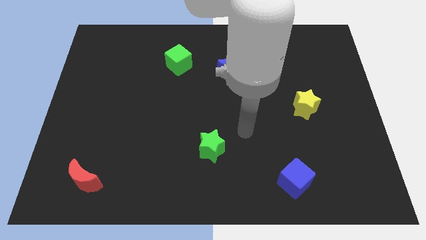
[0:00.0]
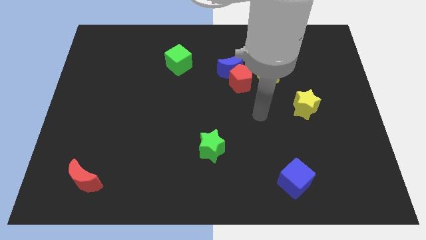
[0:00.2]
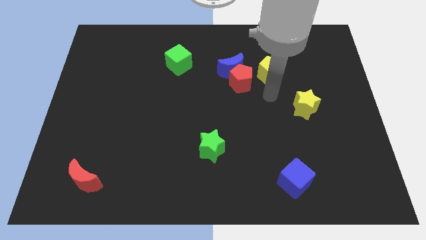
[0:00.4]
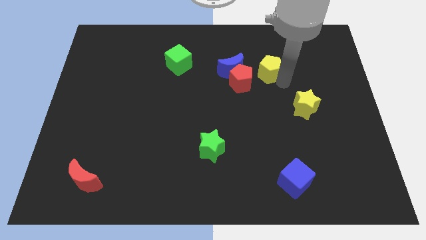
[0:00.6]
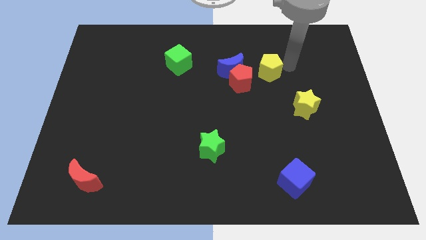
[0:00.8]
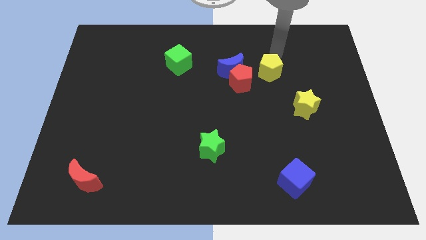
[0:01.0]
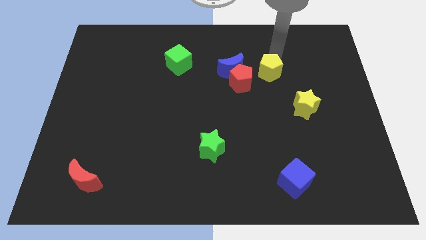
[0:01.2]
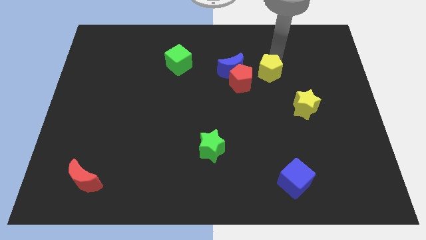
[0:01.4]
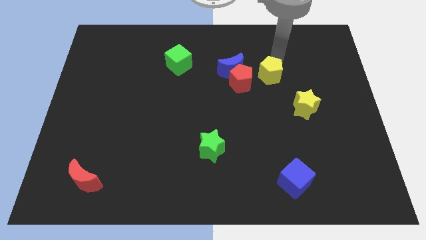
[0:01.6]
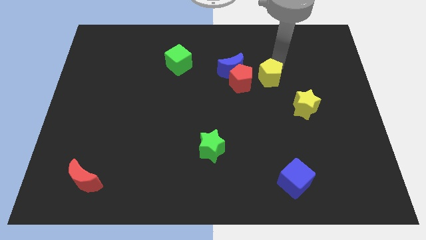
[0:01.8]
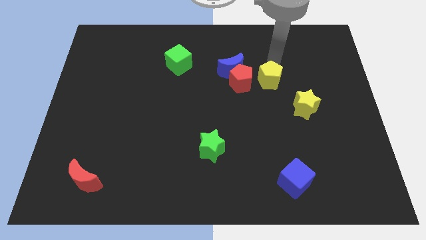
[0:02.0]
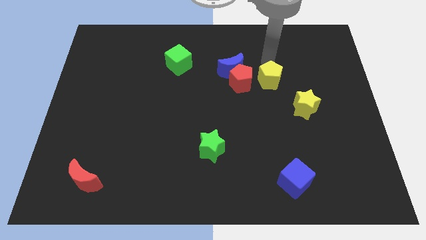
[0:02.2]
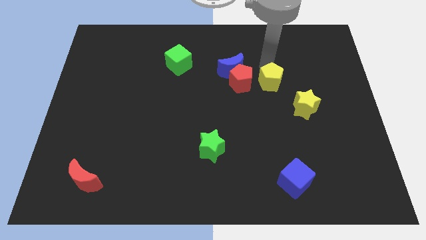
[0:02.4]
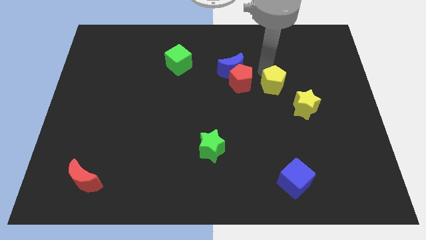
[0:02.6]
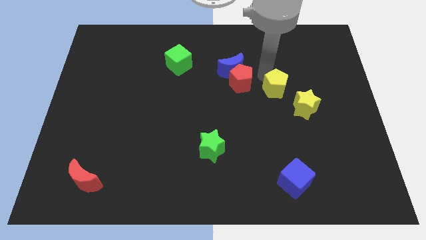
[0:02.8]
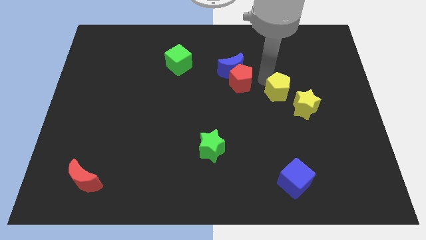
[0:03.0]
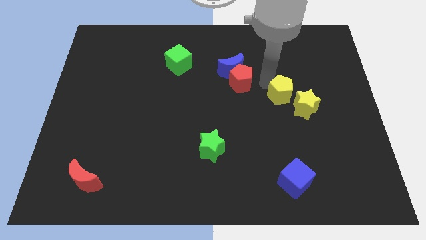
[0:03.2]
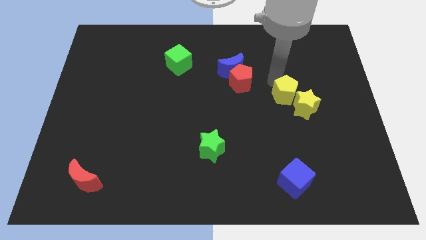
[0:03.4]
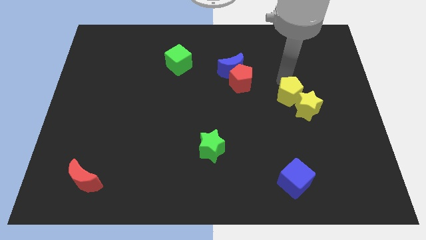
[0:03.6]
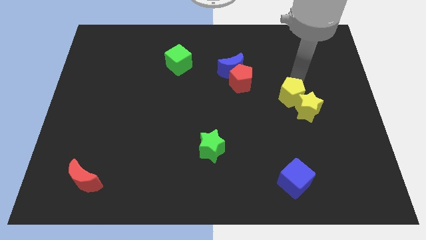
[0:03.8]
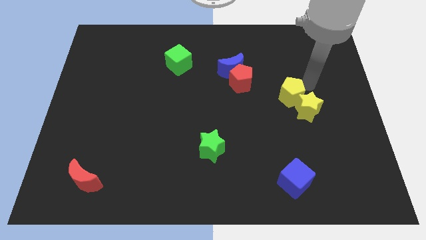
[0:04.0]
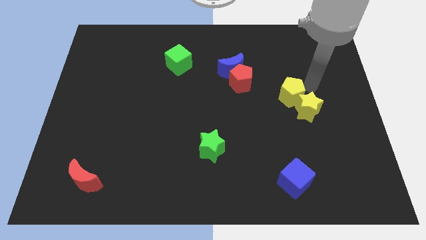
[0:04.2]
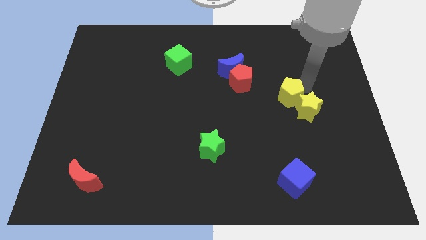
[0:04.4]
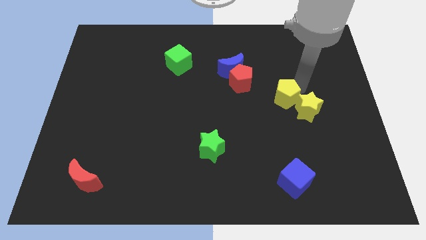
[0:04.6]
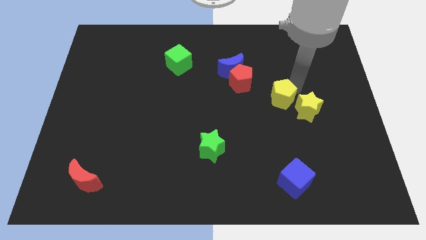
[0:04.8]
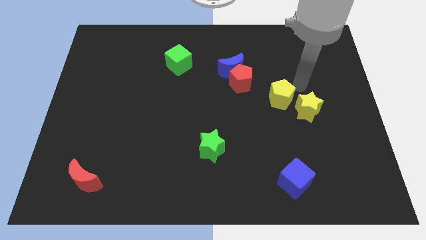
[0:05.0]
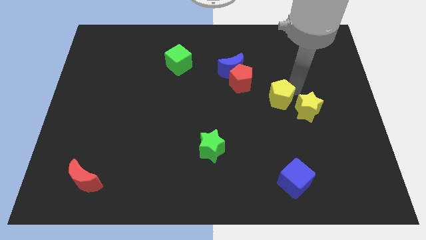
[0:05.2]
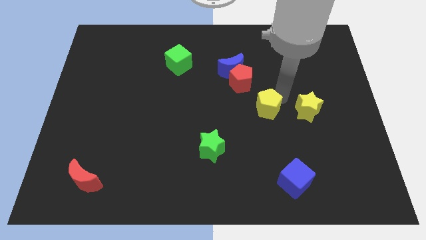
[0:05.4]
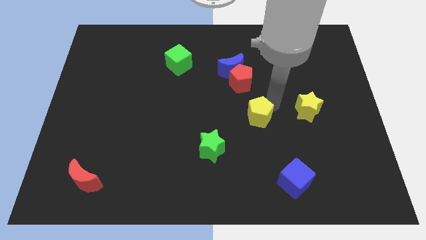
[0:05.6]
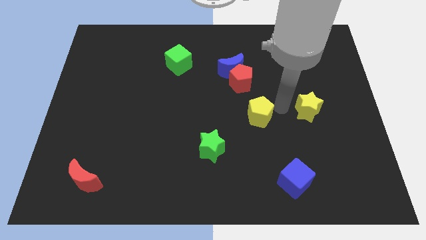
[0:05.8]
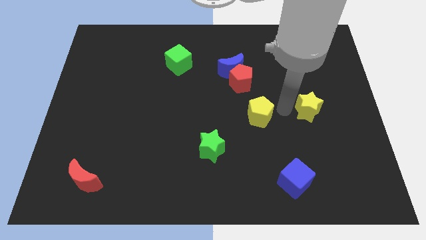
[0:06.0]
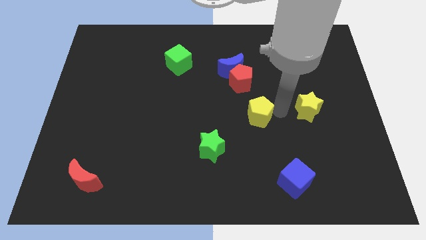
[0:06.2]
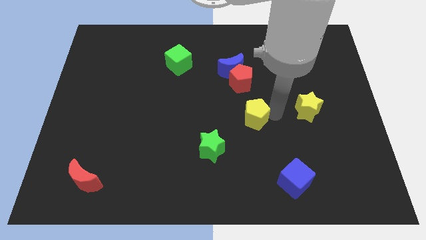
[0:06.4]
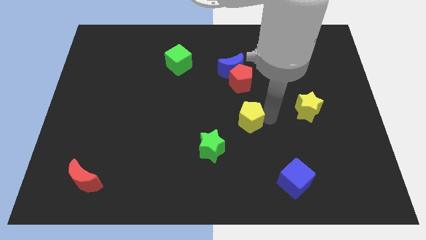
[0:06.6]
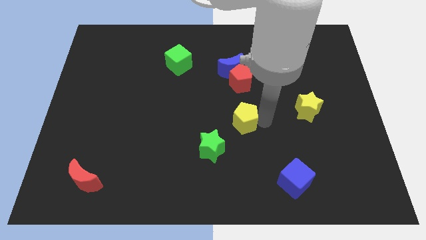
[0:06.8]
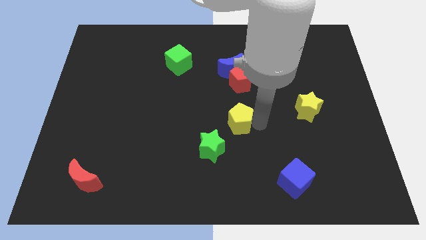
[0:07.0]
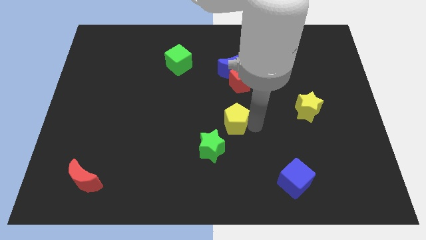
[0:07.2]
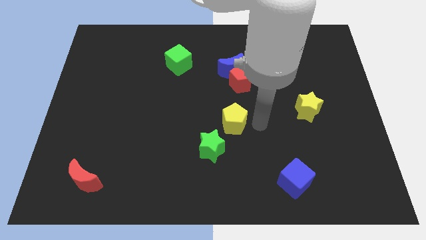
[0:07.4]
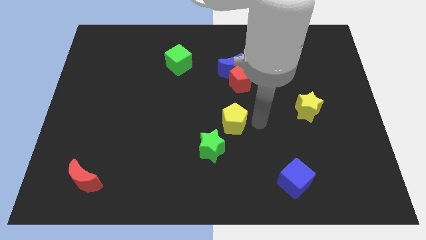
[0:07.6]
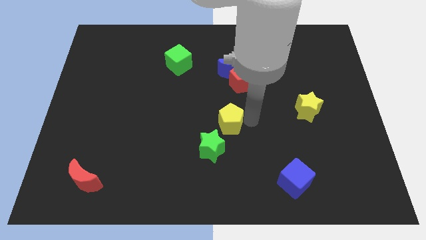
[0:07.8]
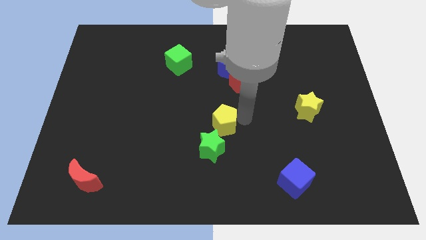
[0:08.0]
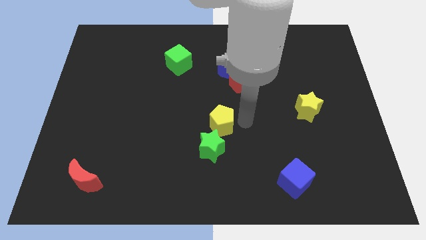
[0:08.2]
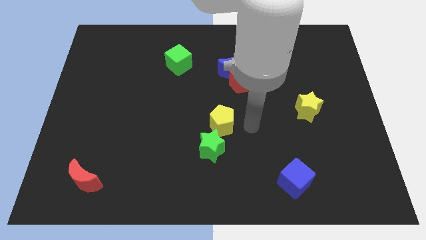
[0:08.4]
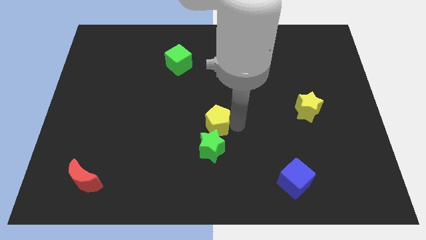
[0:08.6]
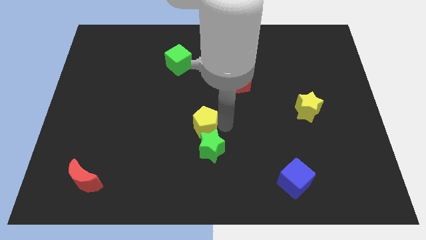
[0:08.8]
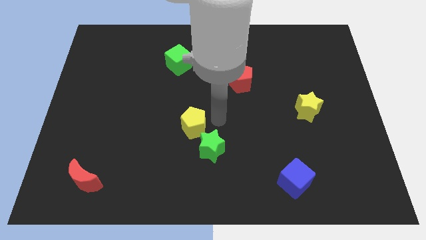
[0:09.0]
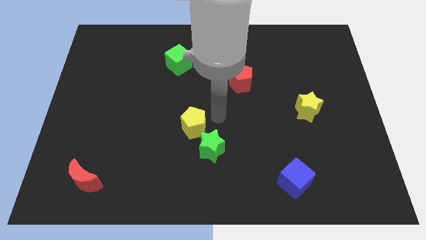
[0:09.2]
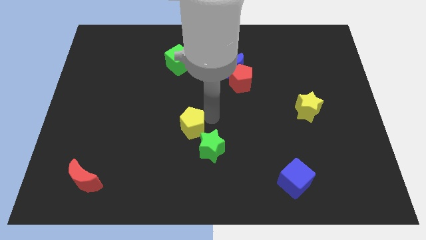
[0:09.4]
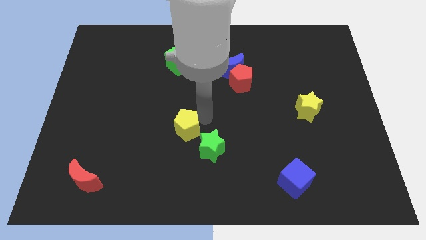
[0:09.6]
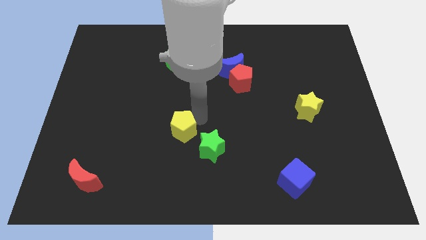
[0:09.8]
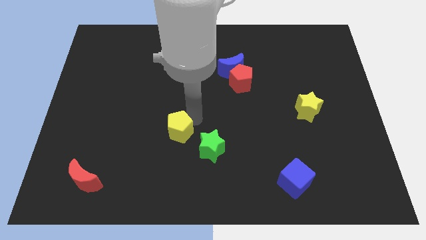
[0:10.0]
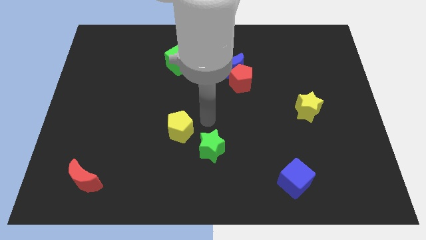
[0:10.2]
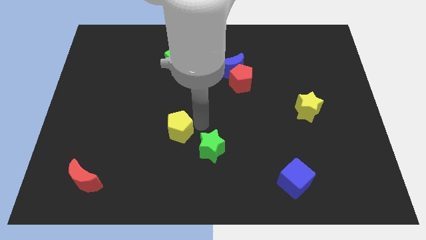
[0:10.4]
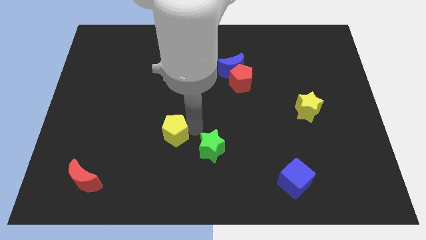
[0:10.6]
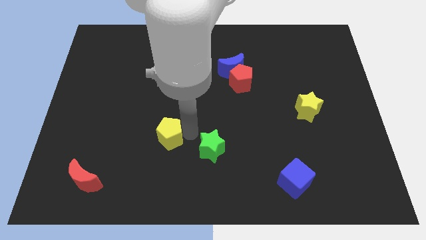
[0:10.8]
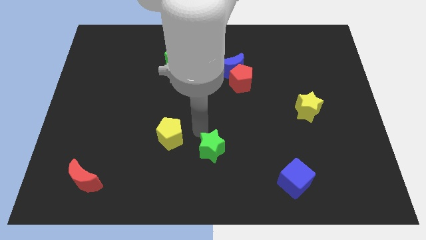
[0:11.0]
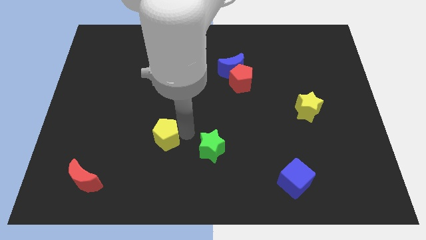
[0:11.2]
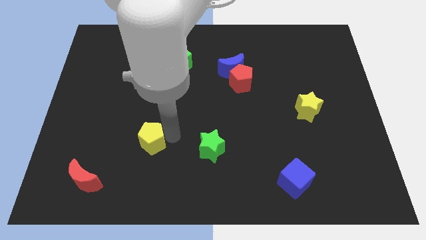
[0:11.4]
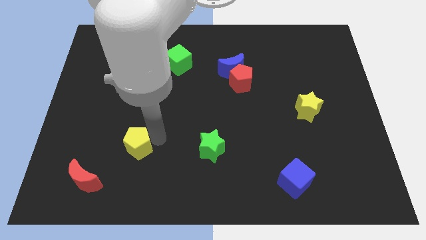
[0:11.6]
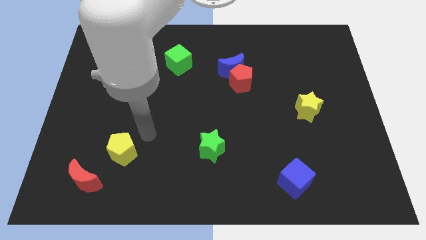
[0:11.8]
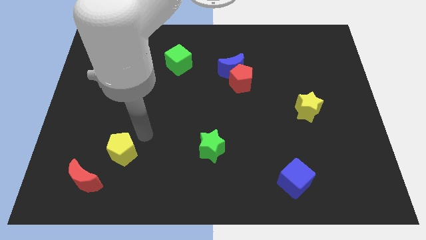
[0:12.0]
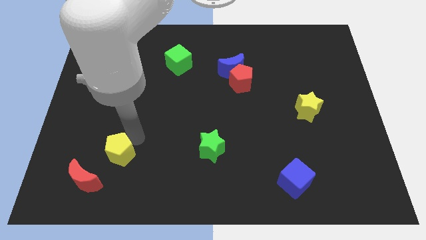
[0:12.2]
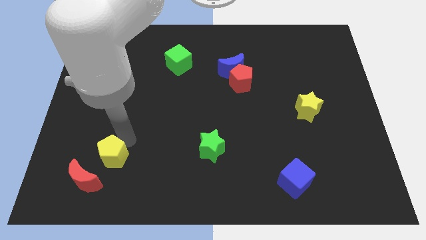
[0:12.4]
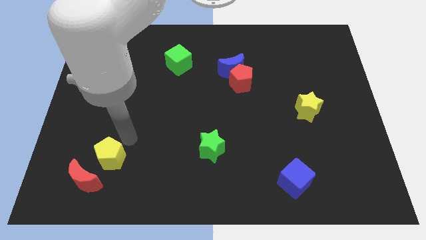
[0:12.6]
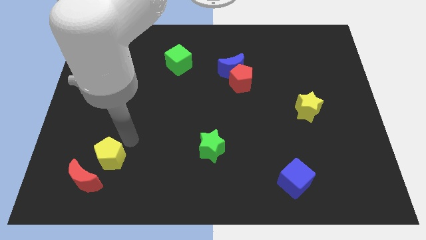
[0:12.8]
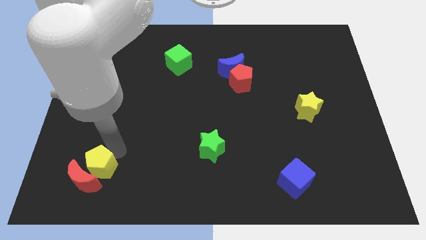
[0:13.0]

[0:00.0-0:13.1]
move the yellow pentagon towards the red moon

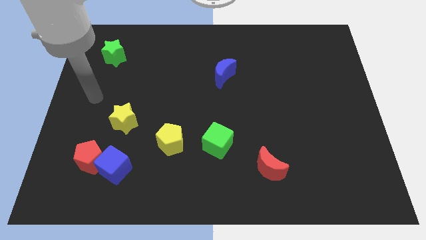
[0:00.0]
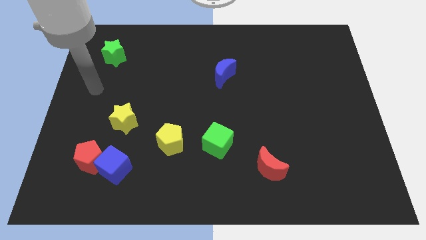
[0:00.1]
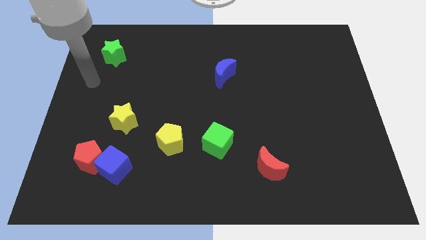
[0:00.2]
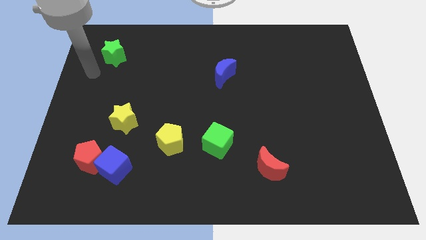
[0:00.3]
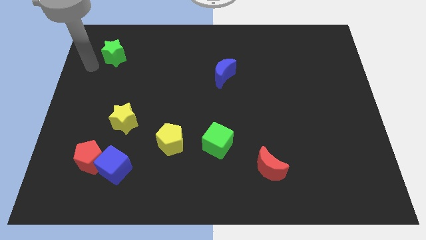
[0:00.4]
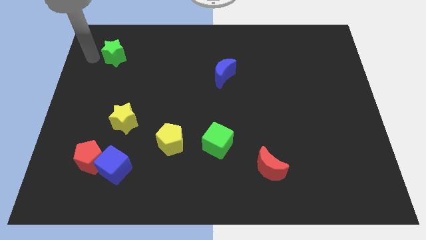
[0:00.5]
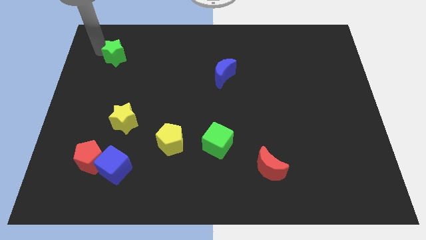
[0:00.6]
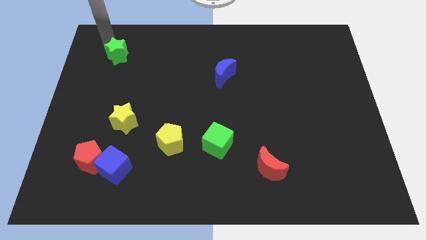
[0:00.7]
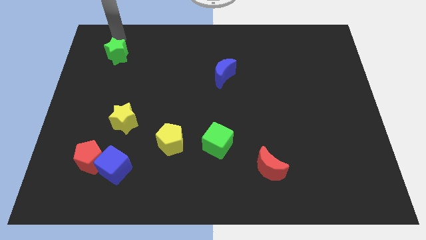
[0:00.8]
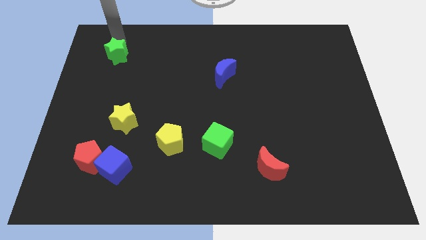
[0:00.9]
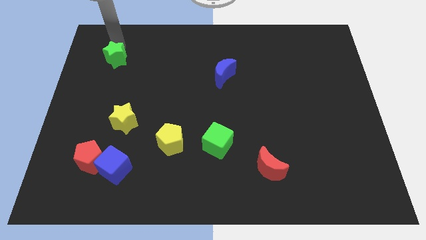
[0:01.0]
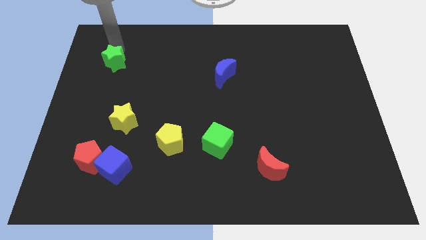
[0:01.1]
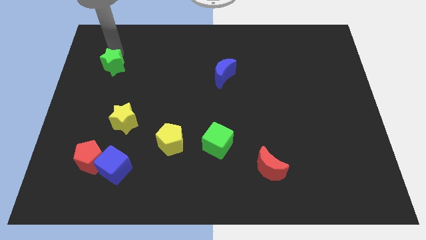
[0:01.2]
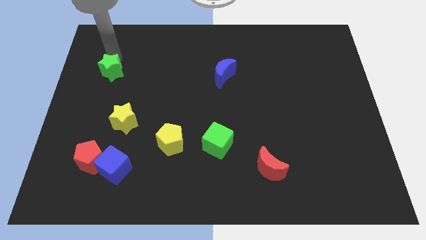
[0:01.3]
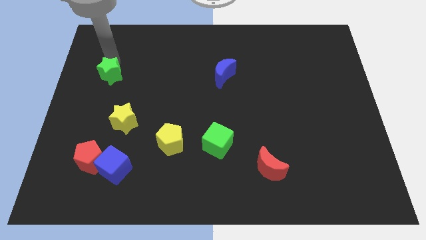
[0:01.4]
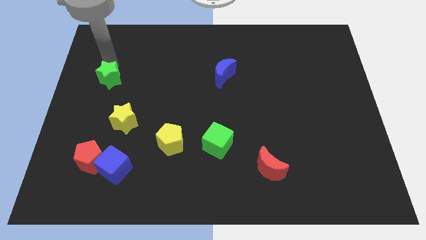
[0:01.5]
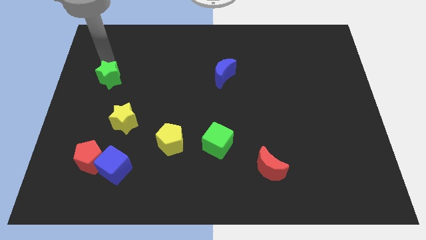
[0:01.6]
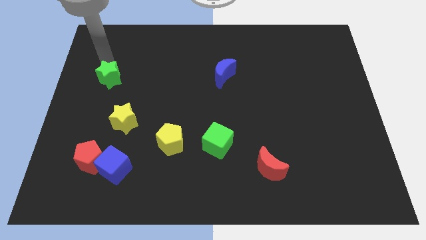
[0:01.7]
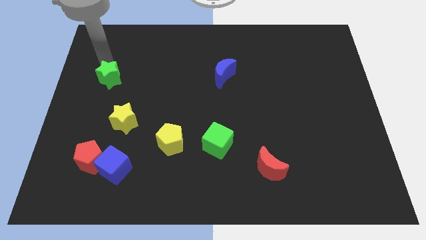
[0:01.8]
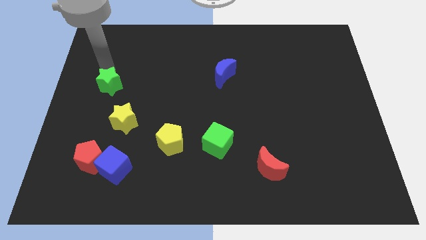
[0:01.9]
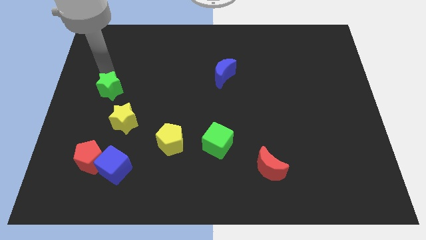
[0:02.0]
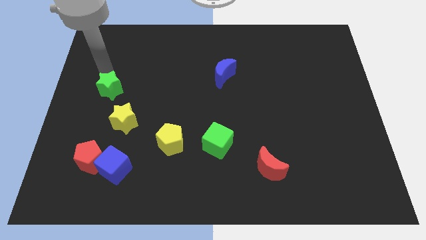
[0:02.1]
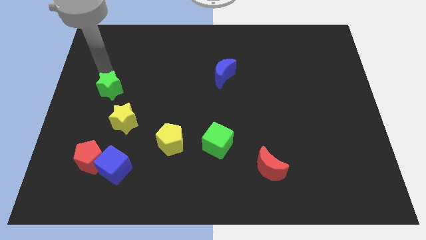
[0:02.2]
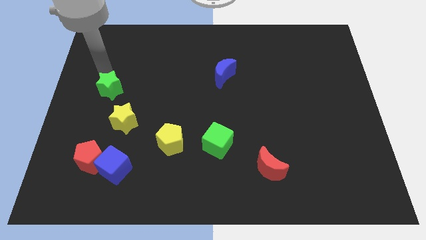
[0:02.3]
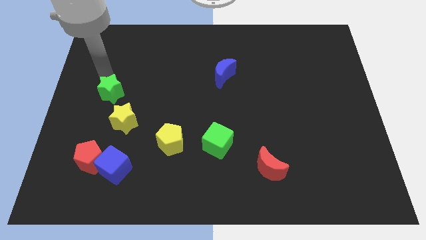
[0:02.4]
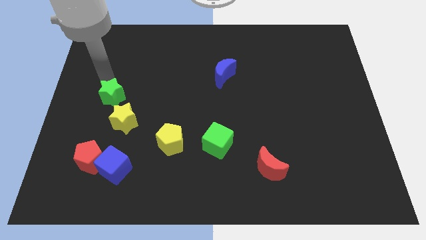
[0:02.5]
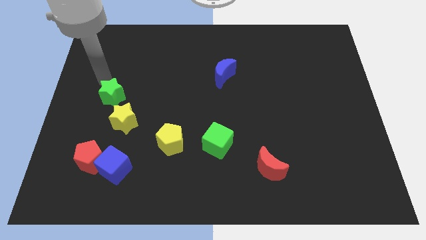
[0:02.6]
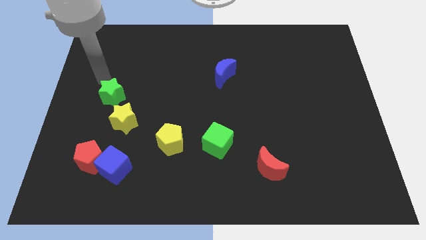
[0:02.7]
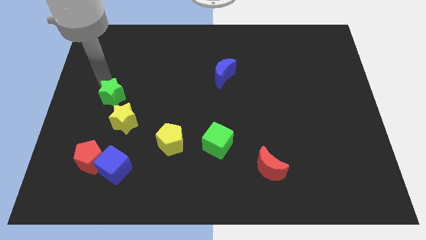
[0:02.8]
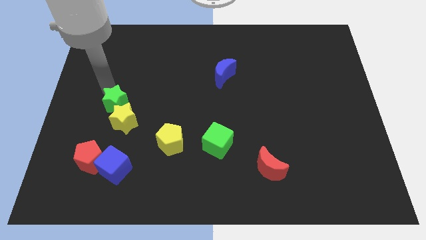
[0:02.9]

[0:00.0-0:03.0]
push the green star close to the yellow star
